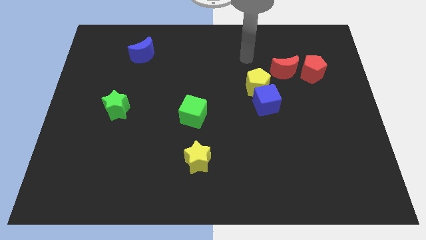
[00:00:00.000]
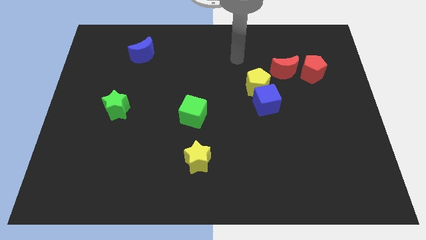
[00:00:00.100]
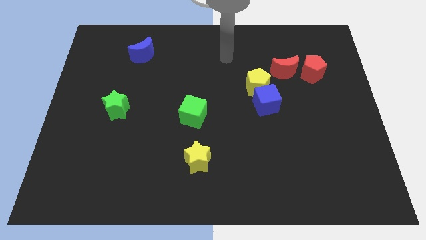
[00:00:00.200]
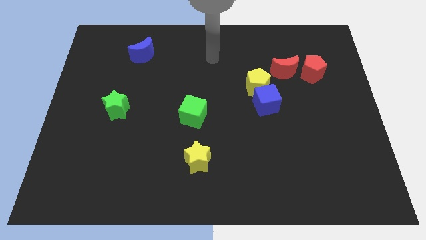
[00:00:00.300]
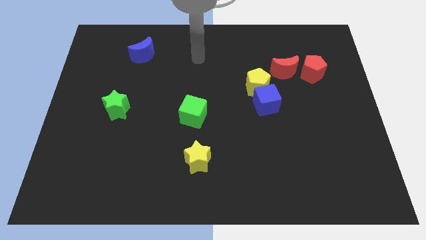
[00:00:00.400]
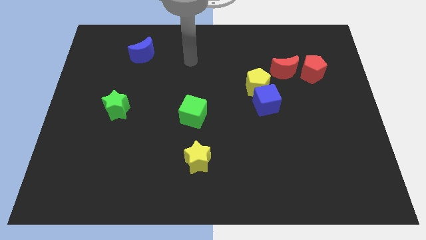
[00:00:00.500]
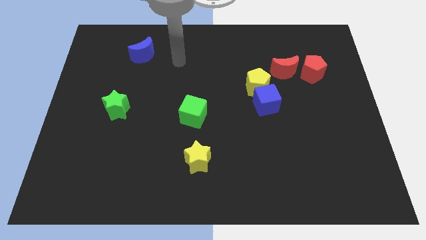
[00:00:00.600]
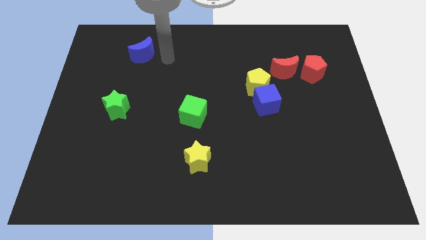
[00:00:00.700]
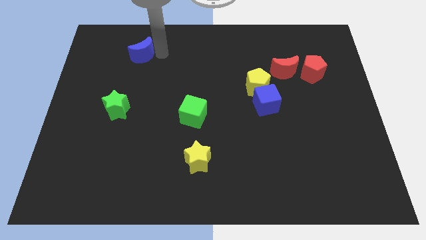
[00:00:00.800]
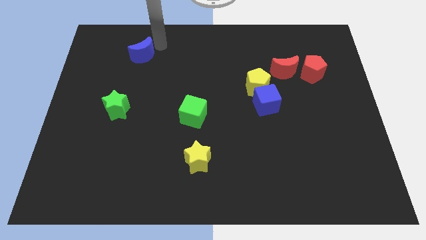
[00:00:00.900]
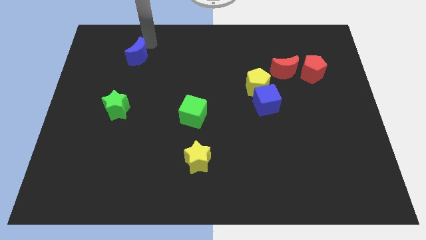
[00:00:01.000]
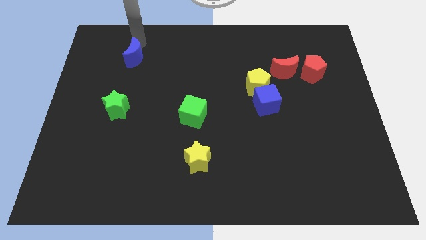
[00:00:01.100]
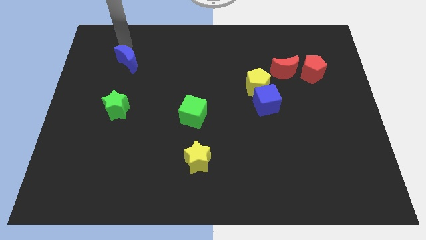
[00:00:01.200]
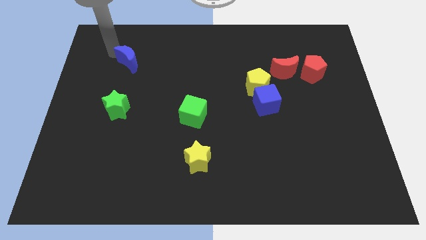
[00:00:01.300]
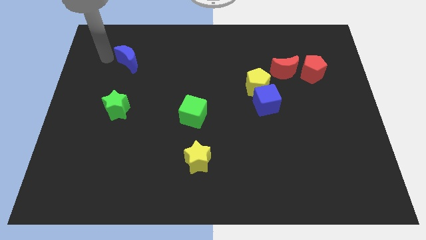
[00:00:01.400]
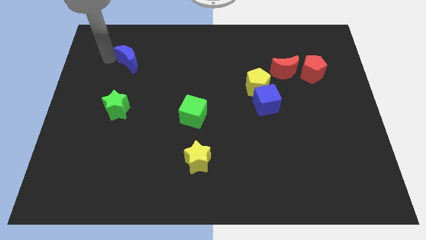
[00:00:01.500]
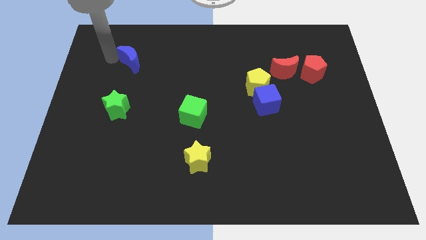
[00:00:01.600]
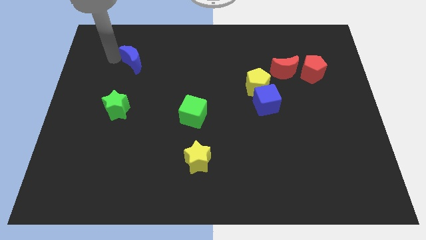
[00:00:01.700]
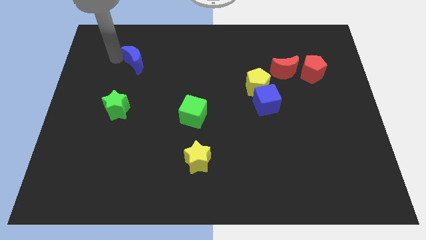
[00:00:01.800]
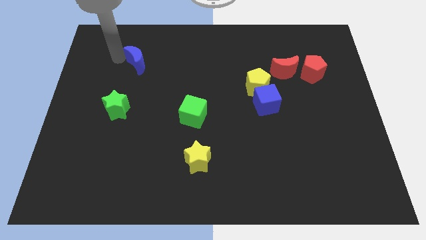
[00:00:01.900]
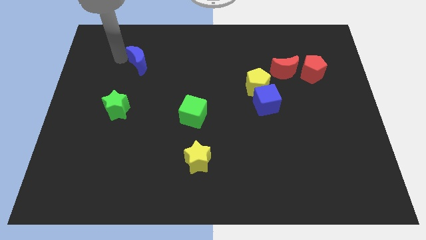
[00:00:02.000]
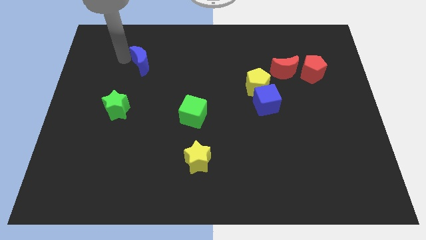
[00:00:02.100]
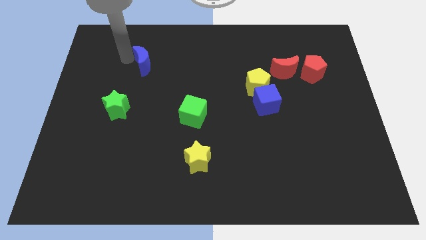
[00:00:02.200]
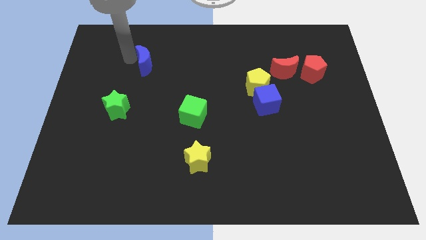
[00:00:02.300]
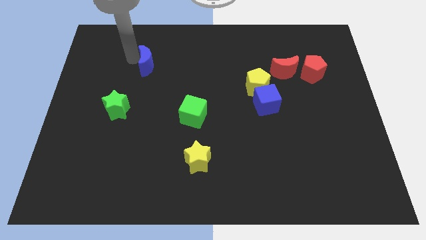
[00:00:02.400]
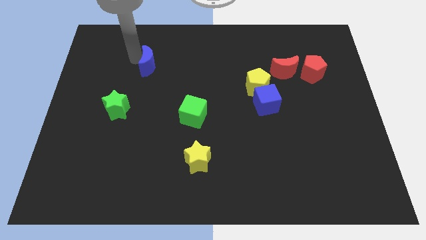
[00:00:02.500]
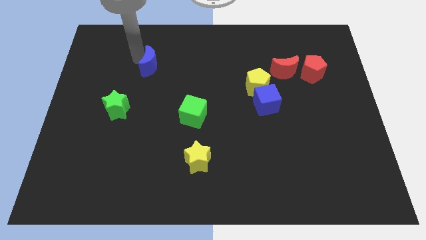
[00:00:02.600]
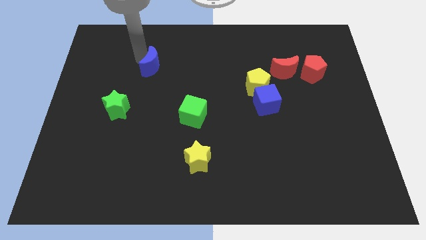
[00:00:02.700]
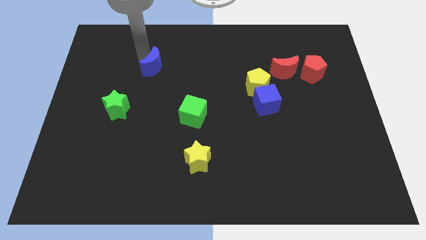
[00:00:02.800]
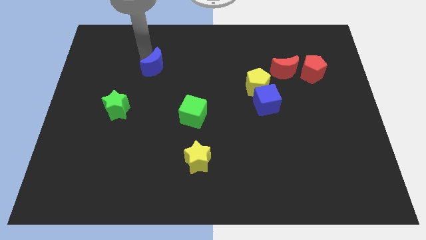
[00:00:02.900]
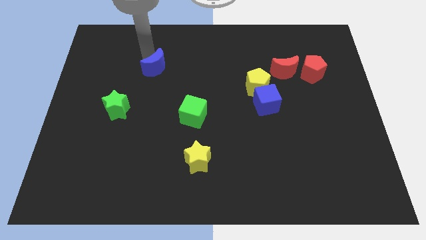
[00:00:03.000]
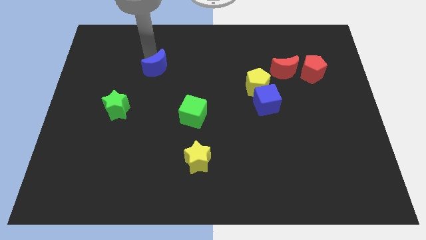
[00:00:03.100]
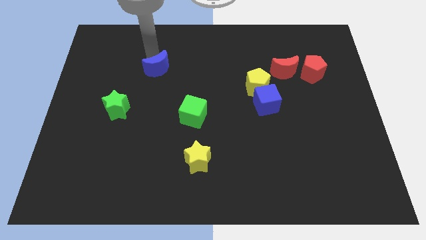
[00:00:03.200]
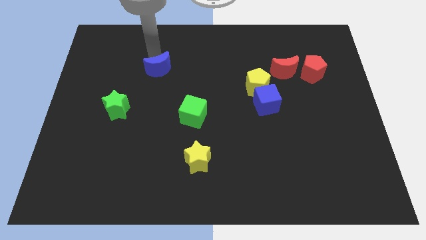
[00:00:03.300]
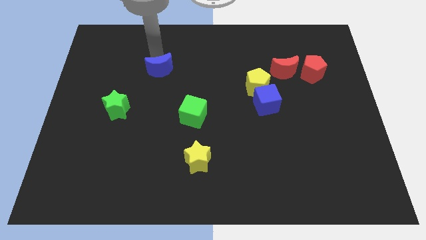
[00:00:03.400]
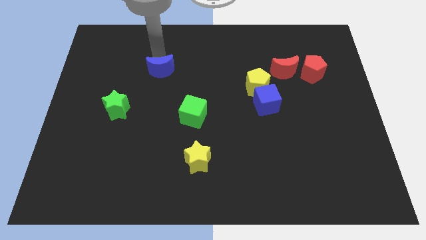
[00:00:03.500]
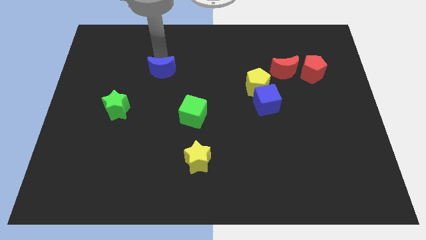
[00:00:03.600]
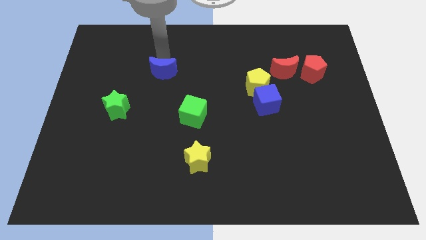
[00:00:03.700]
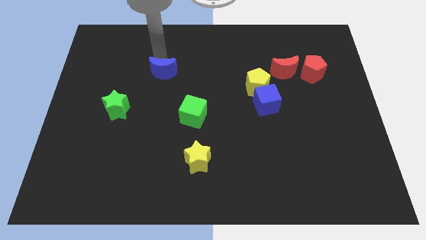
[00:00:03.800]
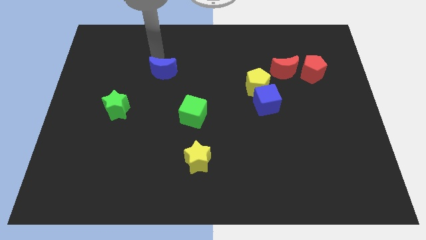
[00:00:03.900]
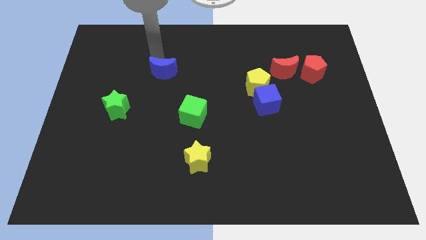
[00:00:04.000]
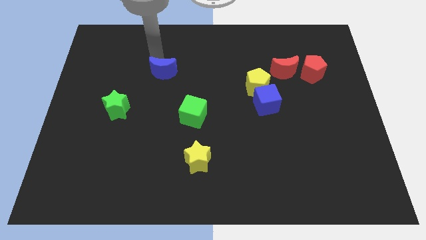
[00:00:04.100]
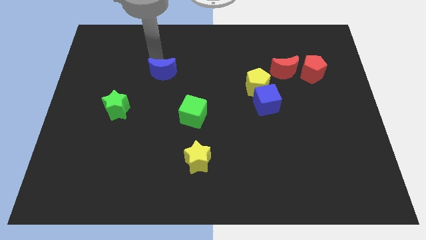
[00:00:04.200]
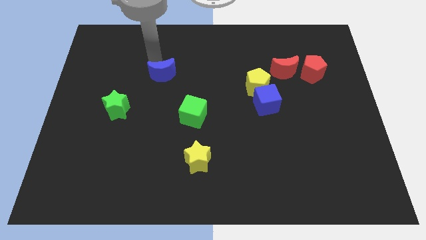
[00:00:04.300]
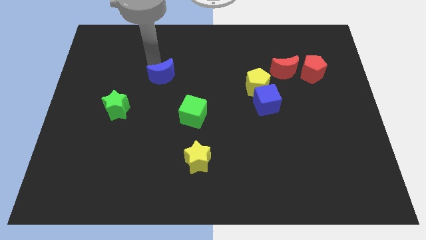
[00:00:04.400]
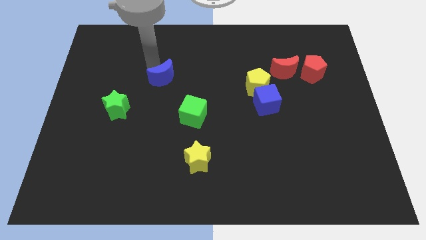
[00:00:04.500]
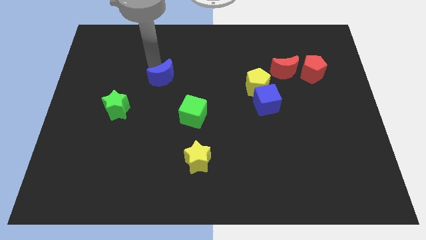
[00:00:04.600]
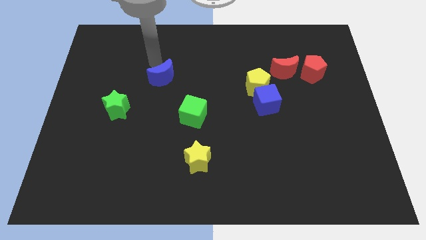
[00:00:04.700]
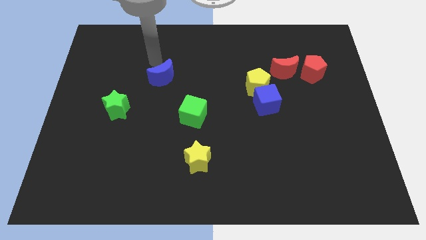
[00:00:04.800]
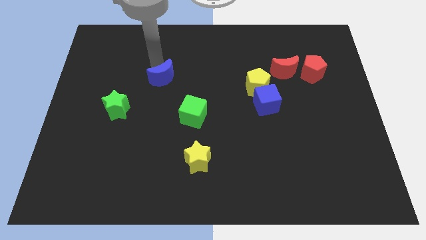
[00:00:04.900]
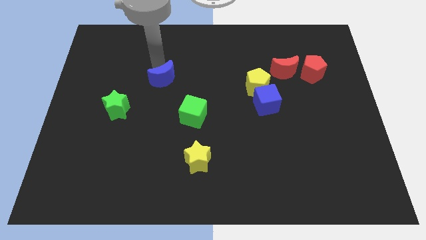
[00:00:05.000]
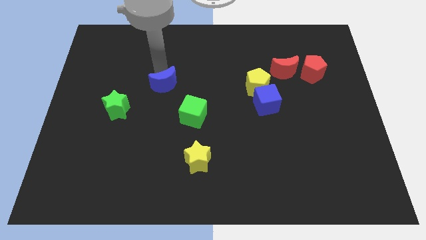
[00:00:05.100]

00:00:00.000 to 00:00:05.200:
slide the blue moon to the top left side of the green cube

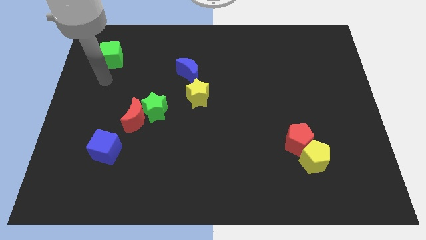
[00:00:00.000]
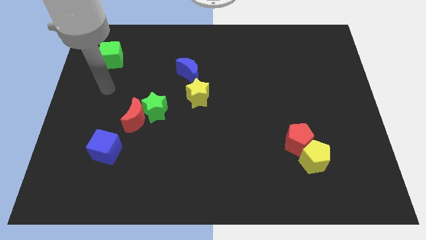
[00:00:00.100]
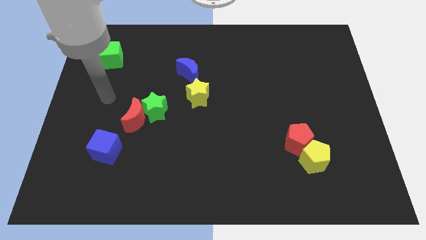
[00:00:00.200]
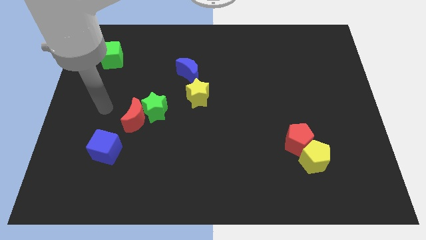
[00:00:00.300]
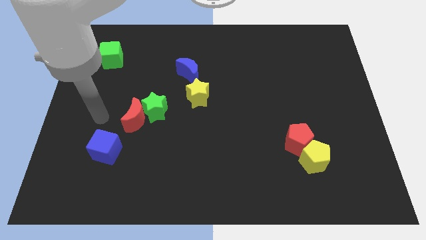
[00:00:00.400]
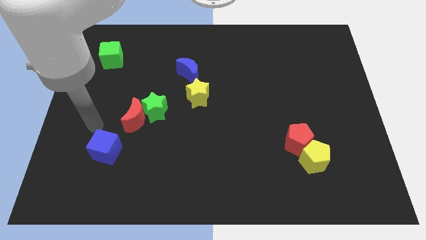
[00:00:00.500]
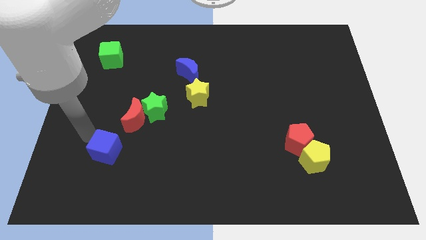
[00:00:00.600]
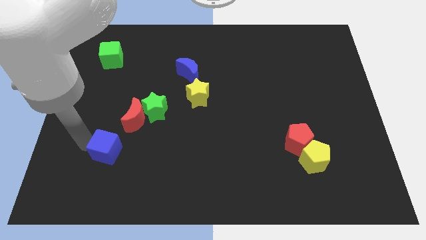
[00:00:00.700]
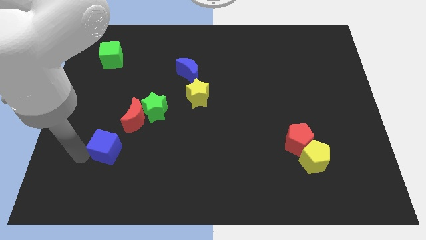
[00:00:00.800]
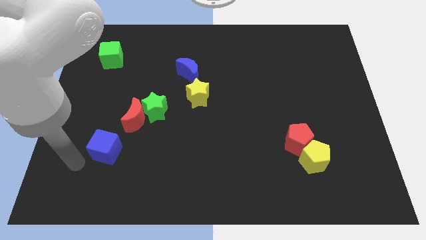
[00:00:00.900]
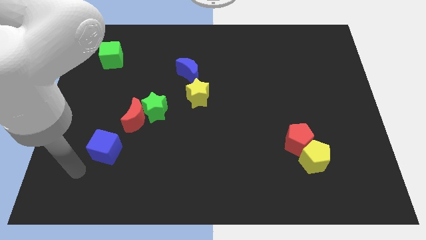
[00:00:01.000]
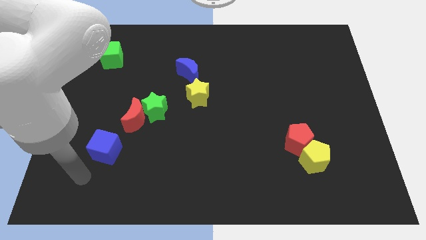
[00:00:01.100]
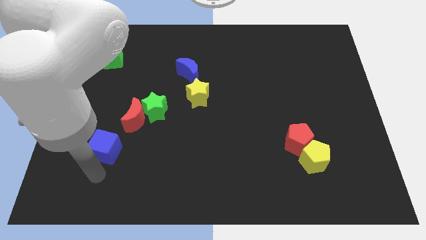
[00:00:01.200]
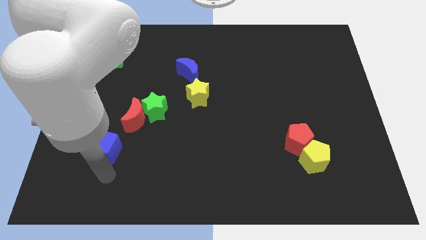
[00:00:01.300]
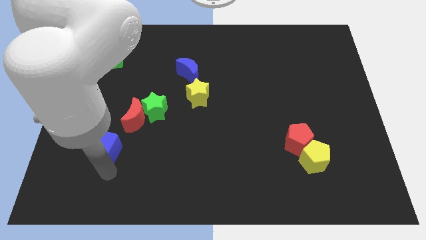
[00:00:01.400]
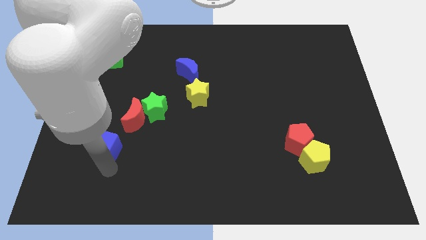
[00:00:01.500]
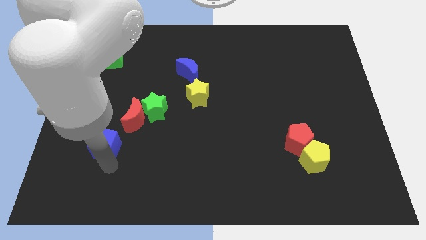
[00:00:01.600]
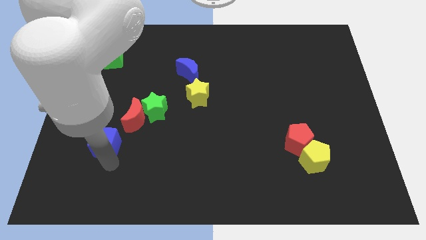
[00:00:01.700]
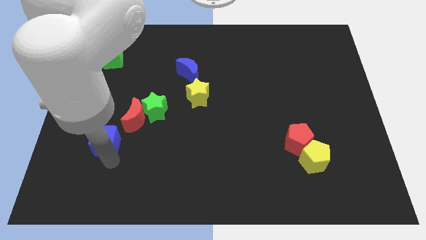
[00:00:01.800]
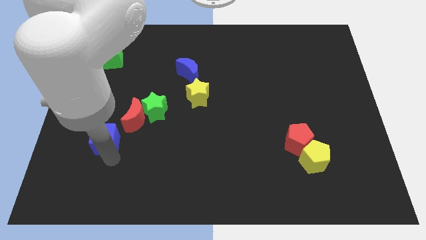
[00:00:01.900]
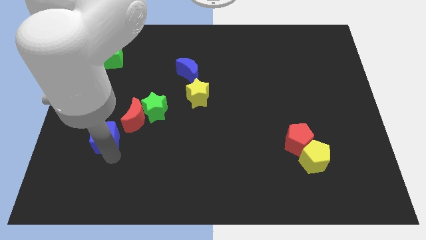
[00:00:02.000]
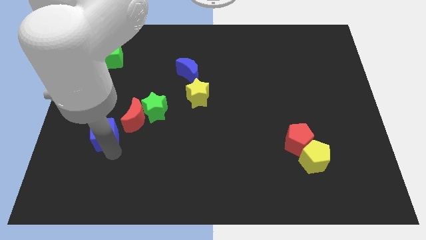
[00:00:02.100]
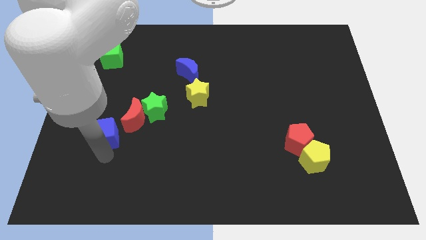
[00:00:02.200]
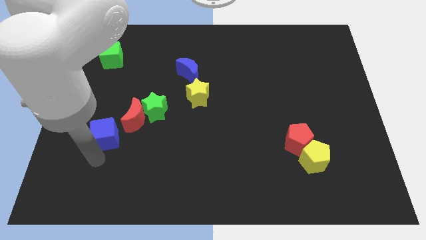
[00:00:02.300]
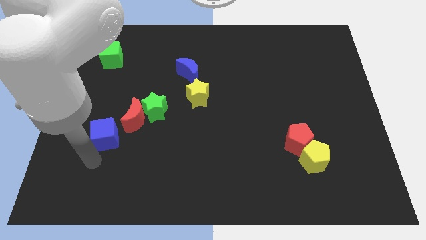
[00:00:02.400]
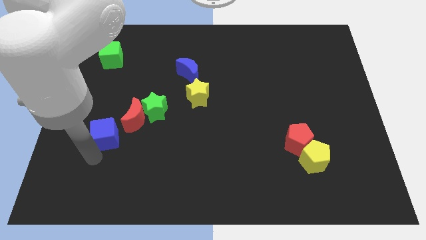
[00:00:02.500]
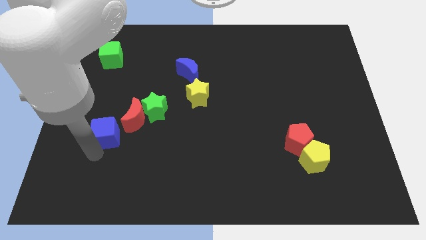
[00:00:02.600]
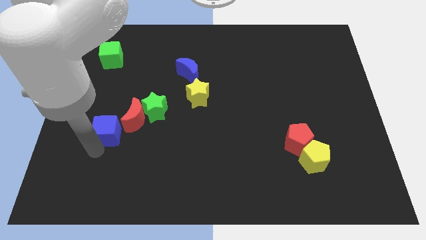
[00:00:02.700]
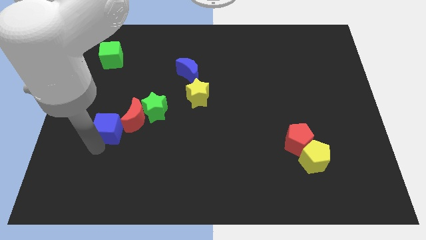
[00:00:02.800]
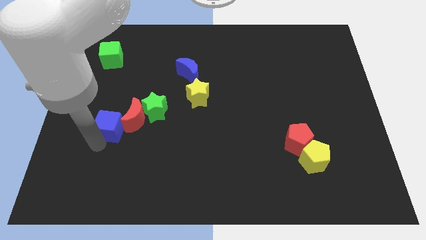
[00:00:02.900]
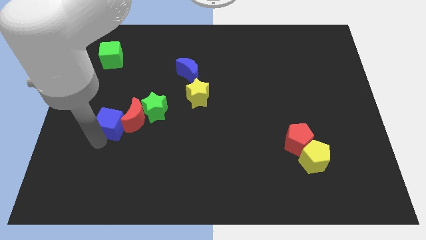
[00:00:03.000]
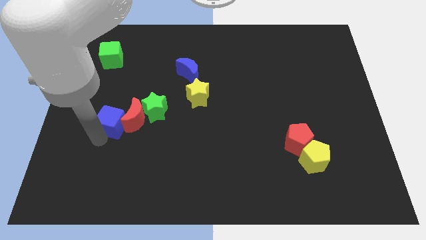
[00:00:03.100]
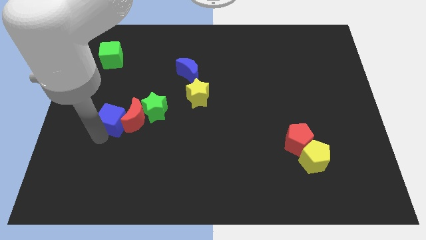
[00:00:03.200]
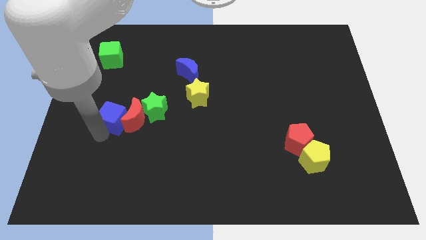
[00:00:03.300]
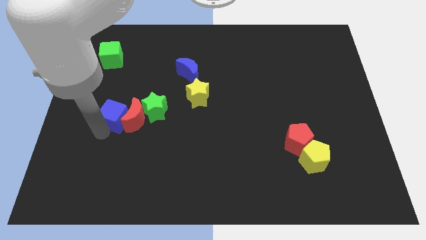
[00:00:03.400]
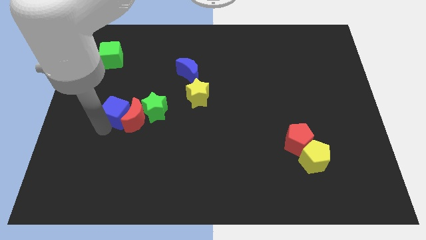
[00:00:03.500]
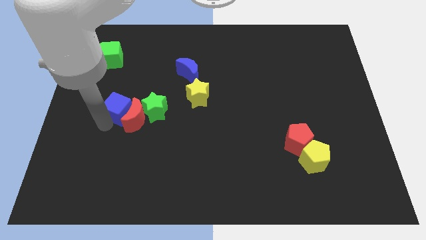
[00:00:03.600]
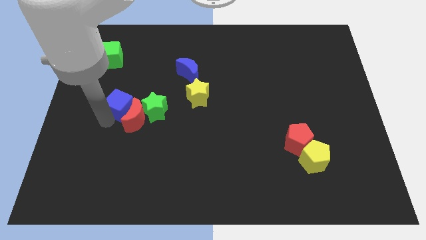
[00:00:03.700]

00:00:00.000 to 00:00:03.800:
put the blue cube to the top of the red moon
